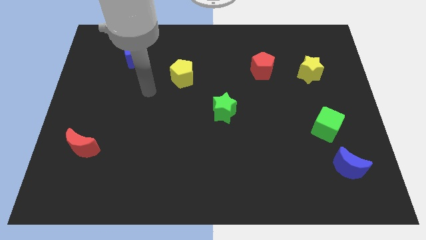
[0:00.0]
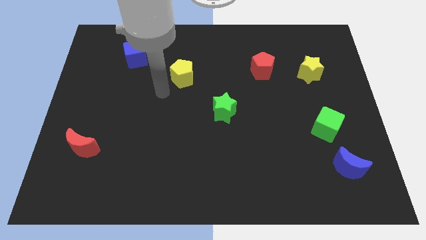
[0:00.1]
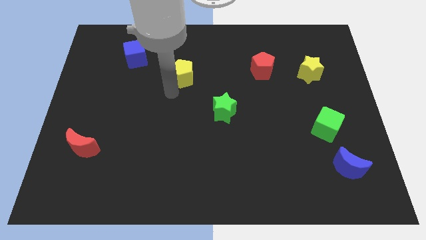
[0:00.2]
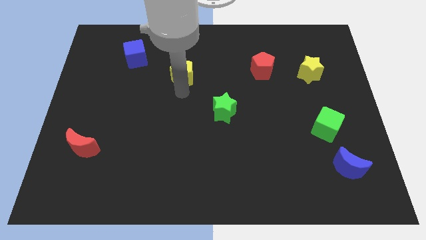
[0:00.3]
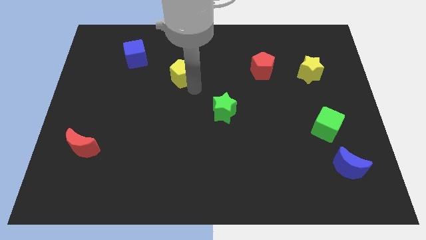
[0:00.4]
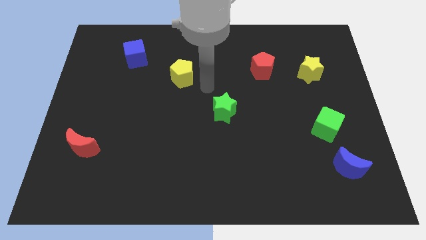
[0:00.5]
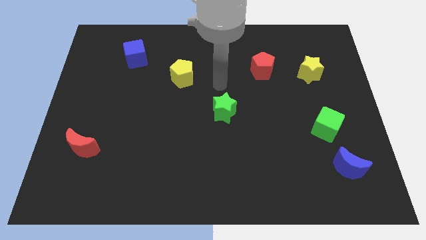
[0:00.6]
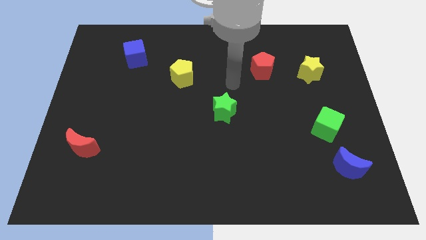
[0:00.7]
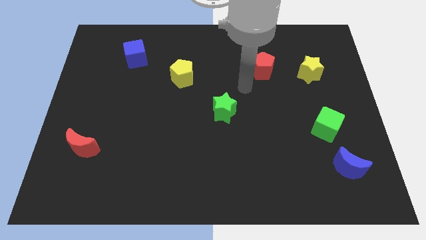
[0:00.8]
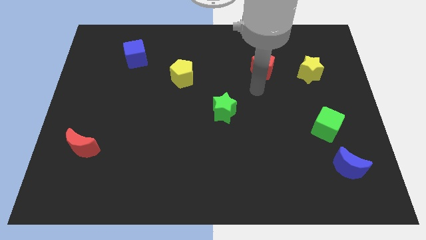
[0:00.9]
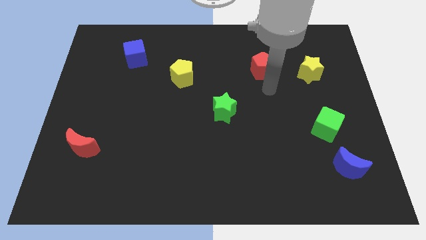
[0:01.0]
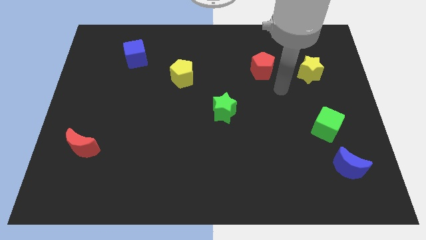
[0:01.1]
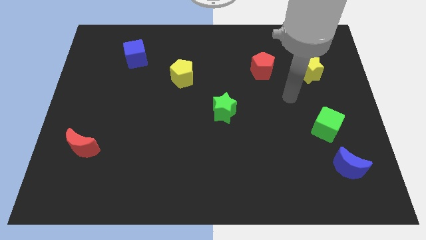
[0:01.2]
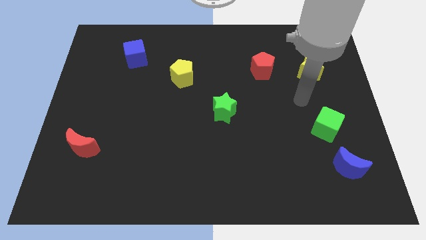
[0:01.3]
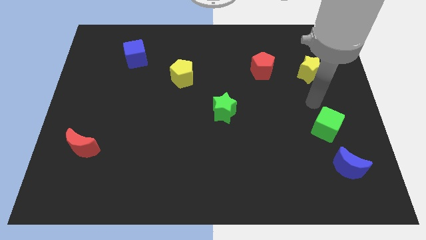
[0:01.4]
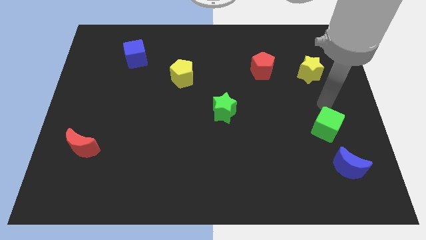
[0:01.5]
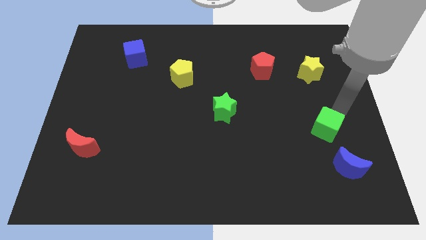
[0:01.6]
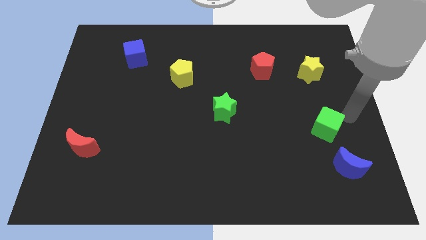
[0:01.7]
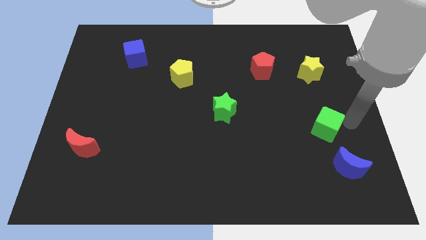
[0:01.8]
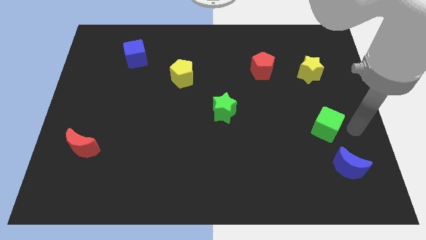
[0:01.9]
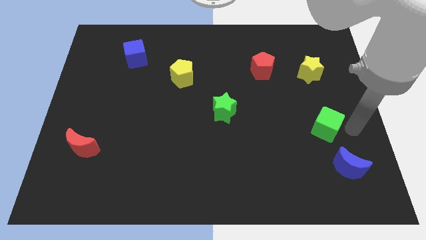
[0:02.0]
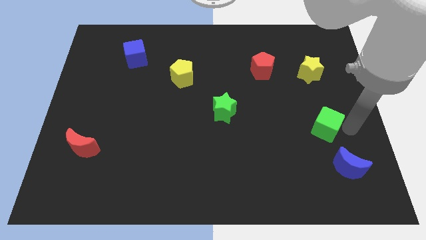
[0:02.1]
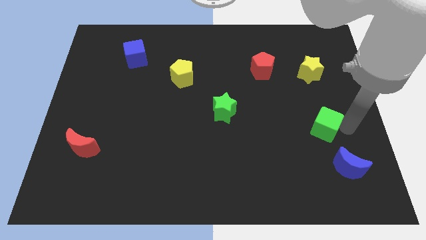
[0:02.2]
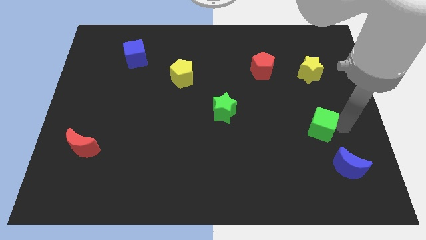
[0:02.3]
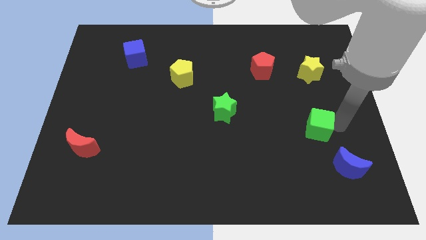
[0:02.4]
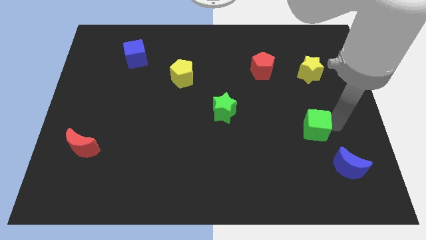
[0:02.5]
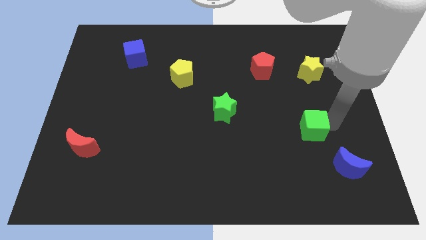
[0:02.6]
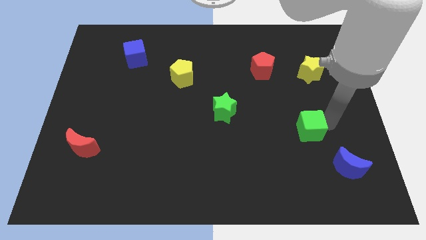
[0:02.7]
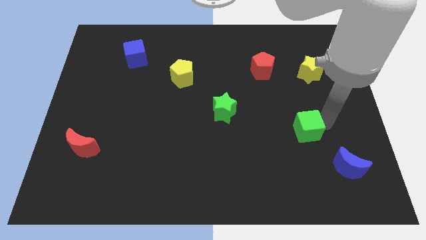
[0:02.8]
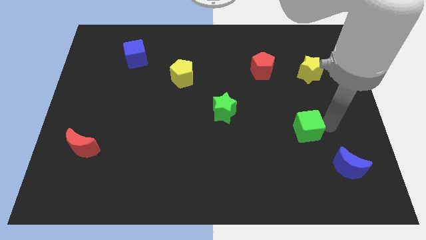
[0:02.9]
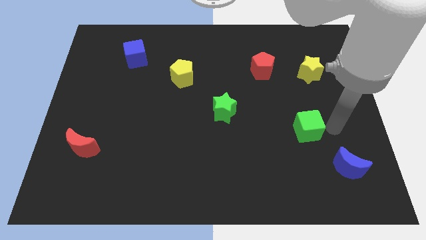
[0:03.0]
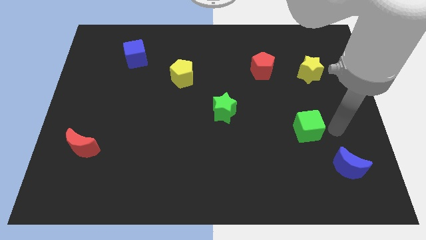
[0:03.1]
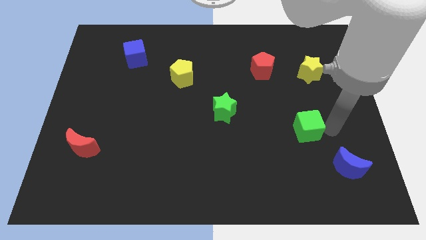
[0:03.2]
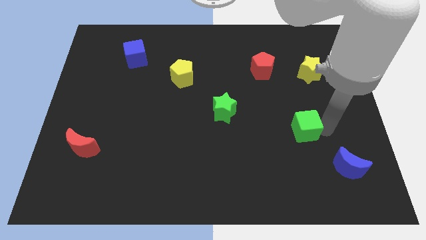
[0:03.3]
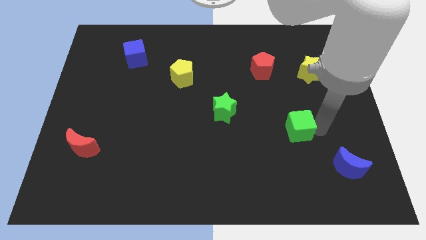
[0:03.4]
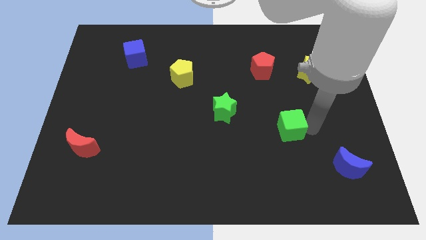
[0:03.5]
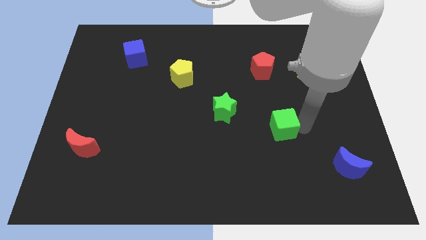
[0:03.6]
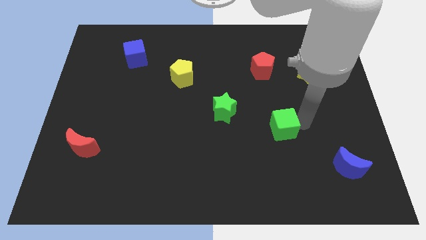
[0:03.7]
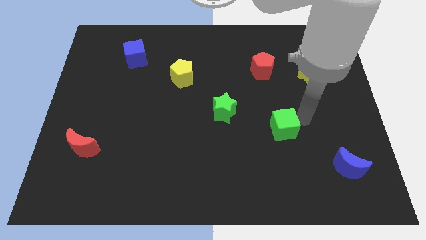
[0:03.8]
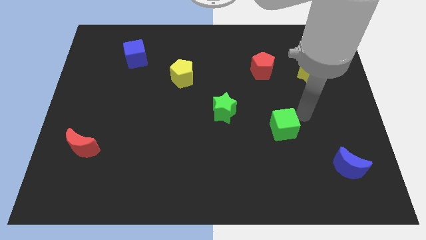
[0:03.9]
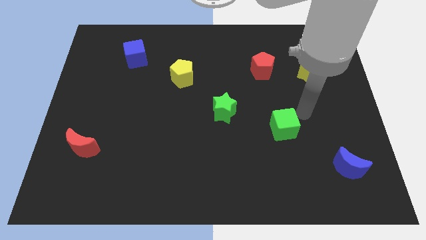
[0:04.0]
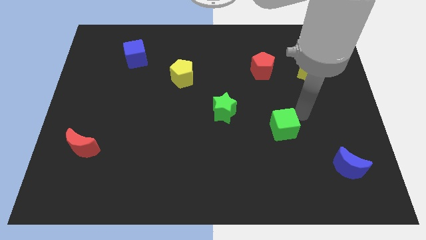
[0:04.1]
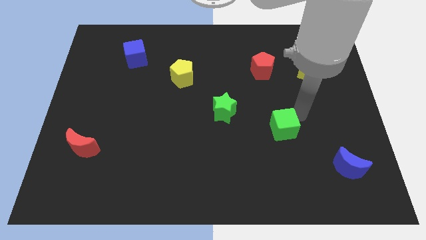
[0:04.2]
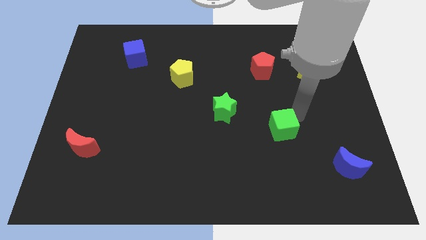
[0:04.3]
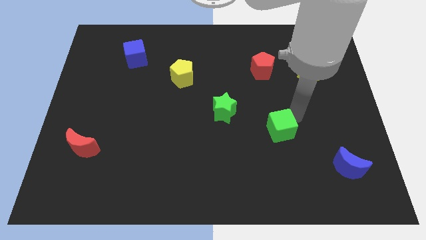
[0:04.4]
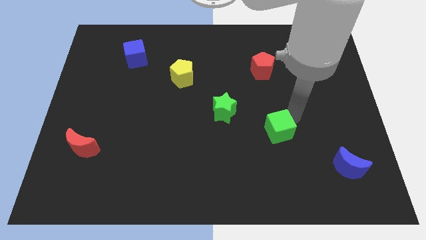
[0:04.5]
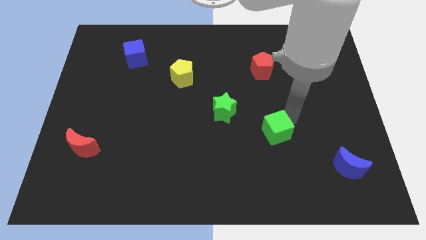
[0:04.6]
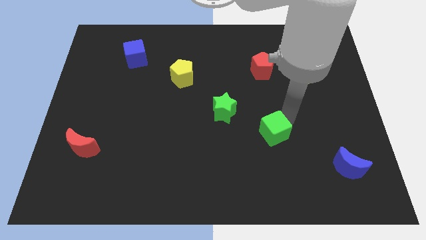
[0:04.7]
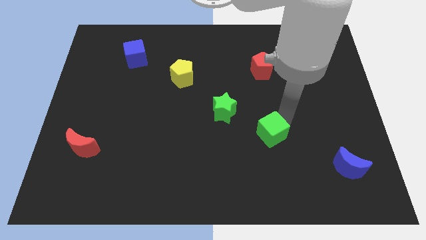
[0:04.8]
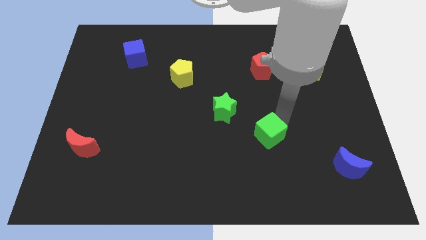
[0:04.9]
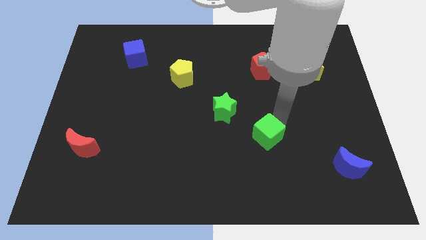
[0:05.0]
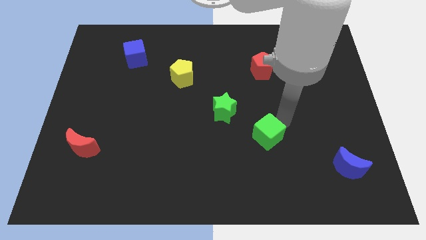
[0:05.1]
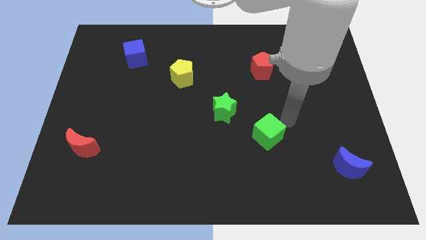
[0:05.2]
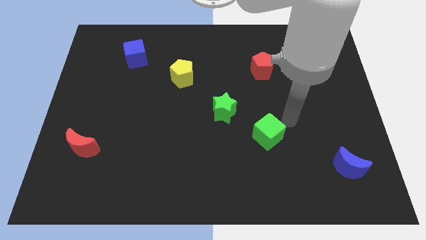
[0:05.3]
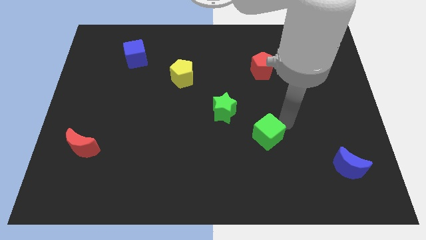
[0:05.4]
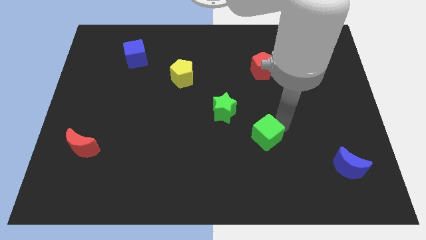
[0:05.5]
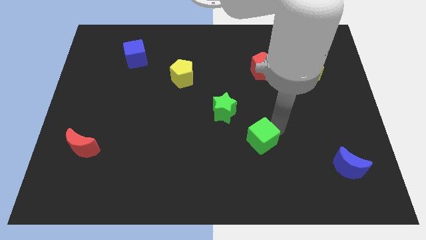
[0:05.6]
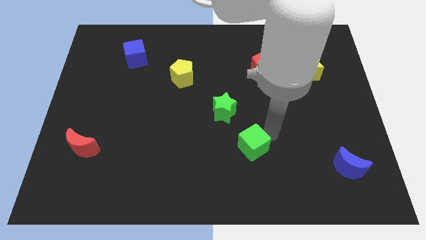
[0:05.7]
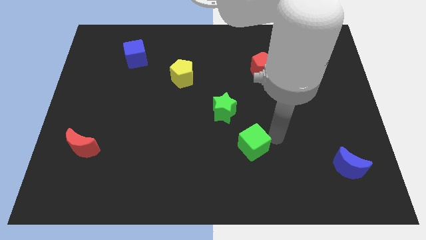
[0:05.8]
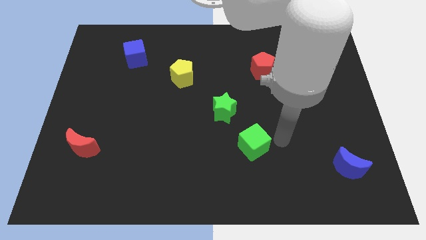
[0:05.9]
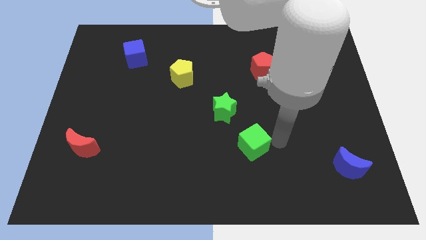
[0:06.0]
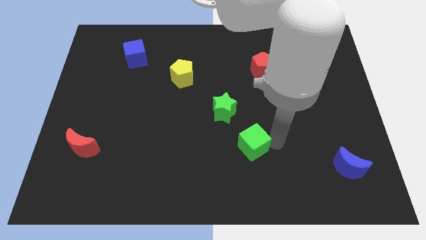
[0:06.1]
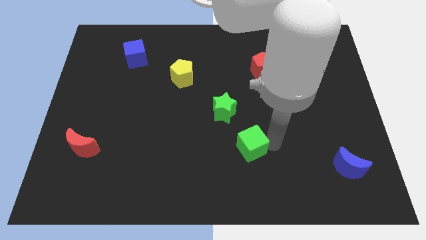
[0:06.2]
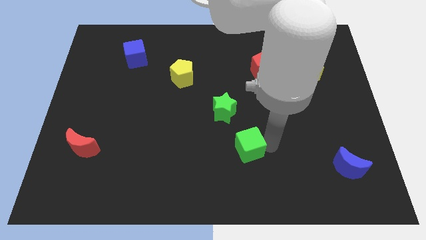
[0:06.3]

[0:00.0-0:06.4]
put the green cube to the bottom side of the green star
